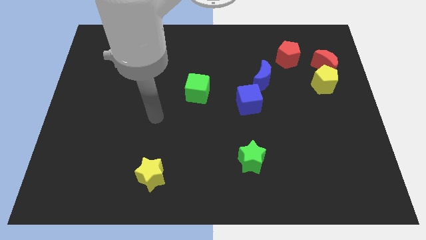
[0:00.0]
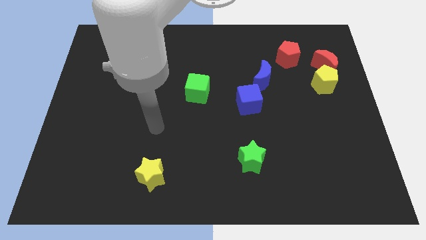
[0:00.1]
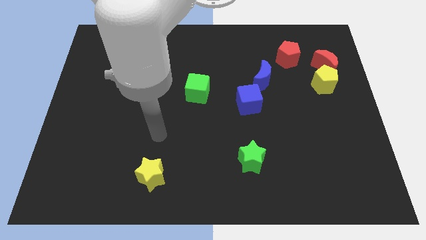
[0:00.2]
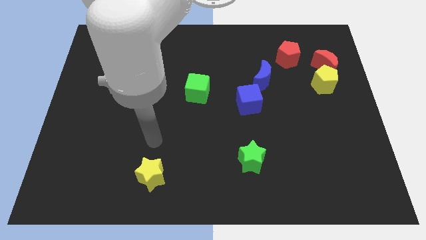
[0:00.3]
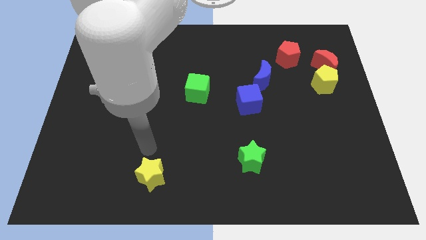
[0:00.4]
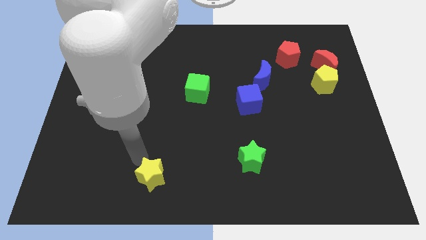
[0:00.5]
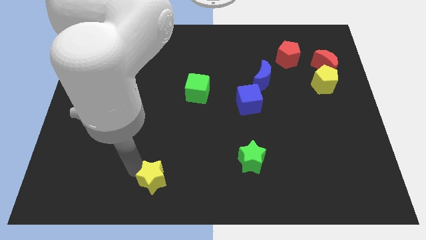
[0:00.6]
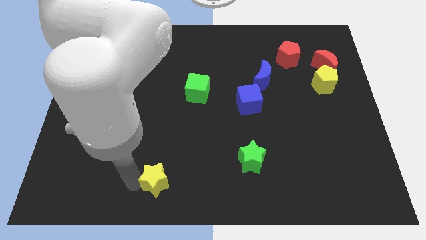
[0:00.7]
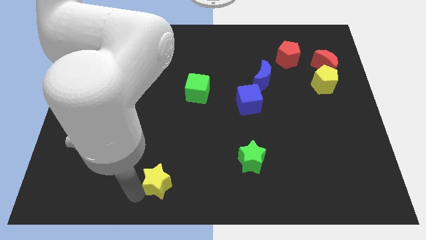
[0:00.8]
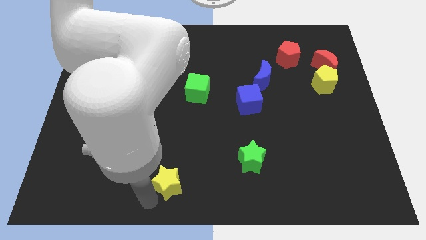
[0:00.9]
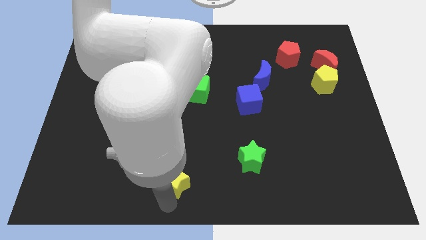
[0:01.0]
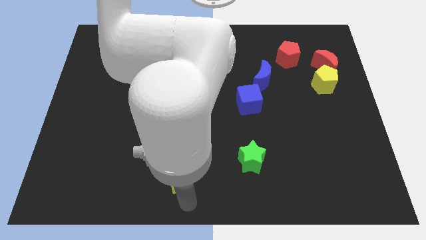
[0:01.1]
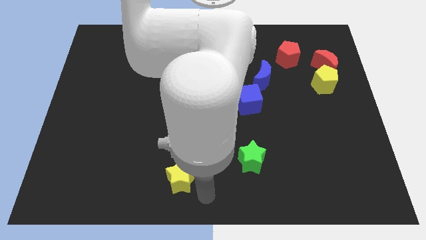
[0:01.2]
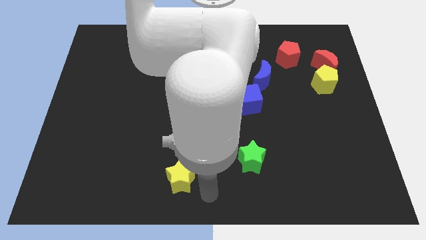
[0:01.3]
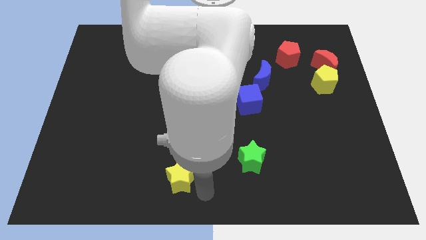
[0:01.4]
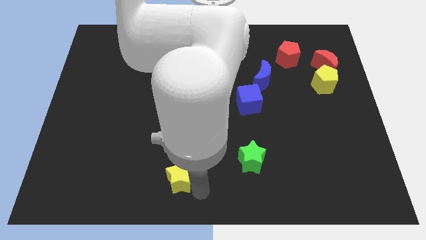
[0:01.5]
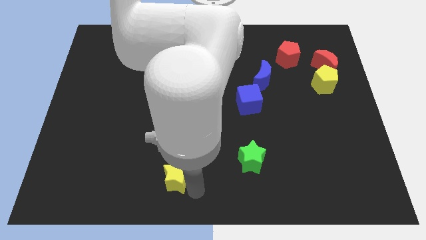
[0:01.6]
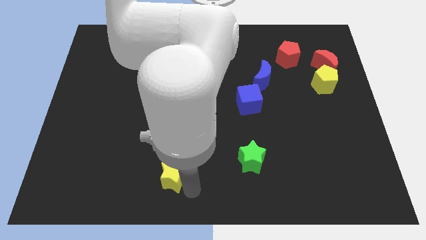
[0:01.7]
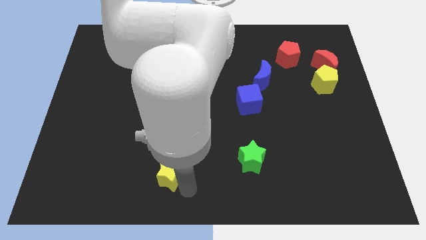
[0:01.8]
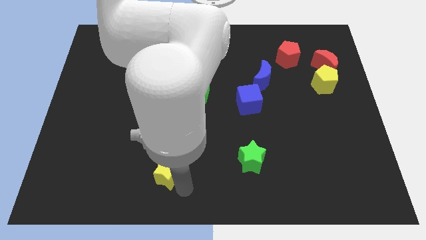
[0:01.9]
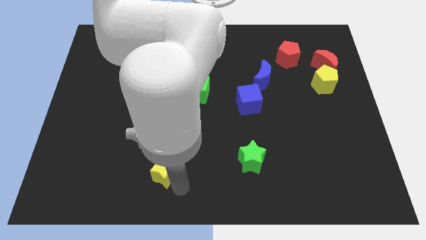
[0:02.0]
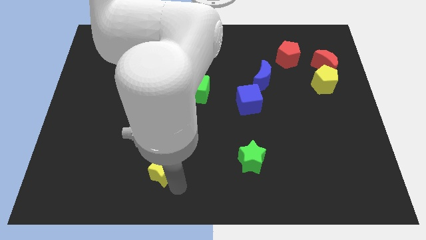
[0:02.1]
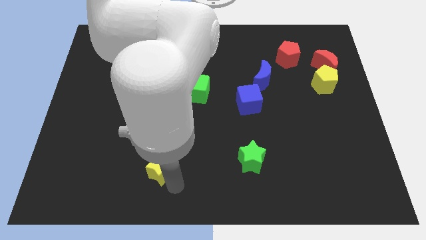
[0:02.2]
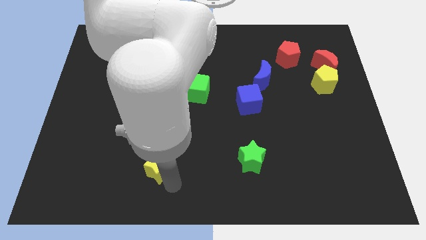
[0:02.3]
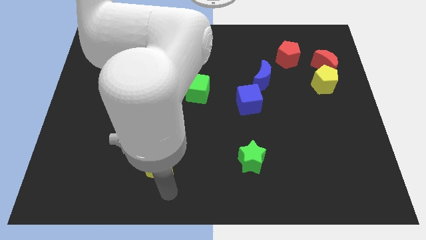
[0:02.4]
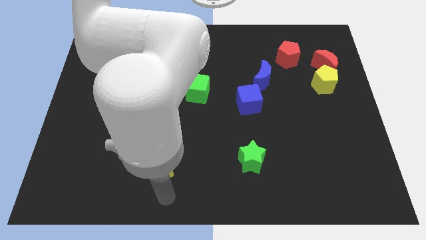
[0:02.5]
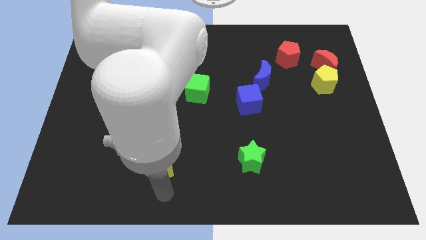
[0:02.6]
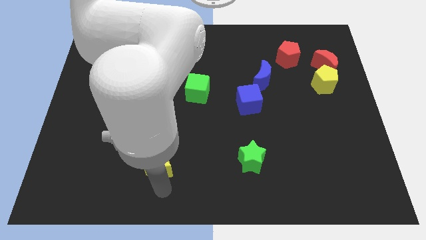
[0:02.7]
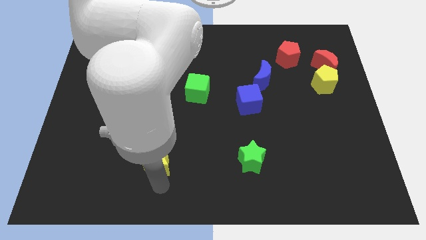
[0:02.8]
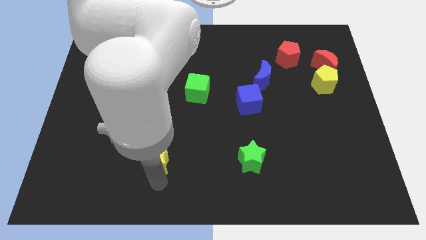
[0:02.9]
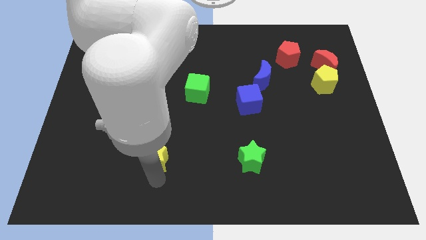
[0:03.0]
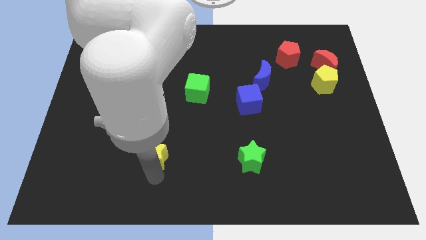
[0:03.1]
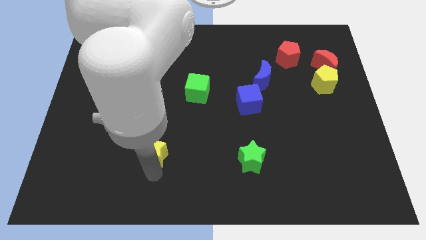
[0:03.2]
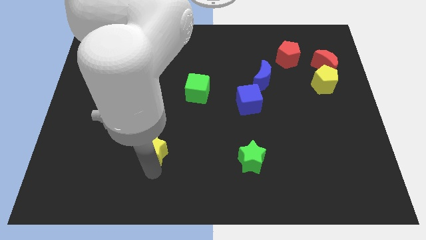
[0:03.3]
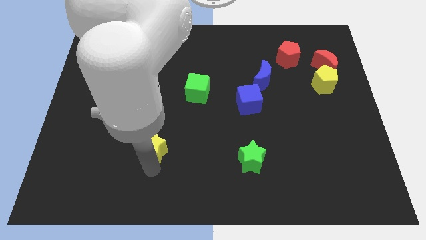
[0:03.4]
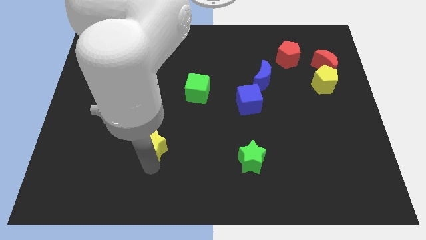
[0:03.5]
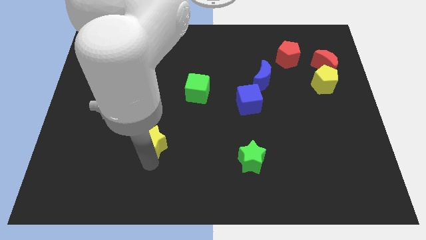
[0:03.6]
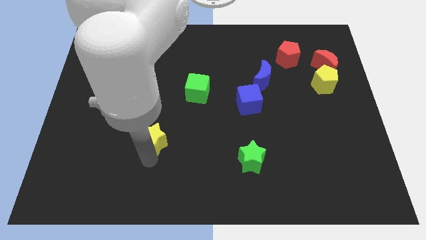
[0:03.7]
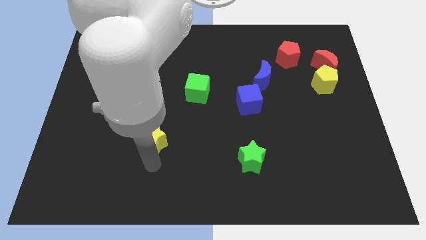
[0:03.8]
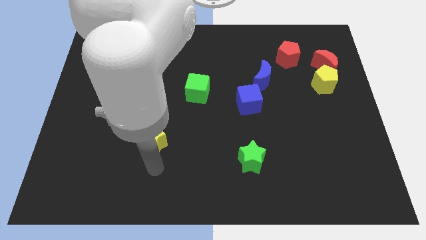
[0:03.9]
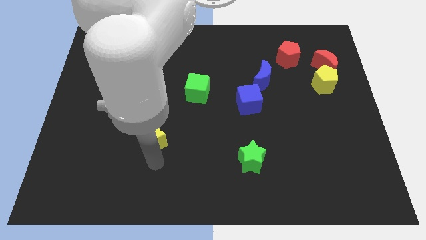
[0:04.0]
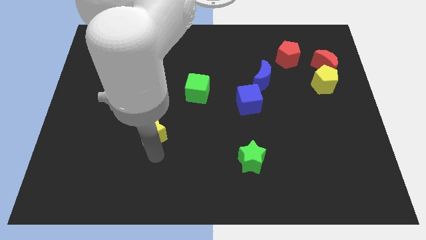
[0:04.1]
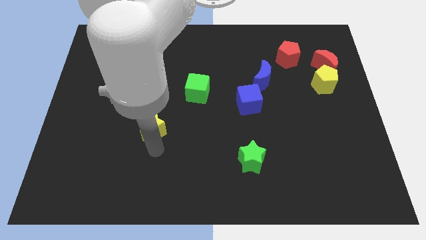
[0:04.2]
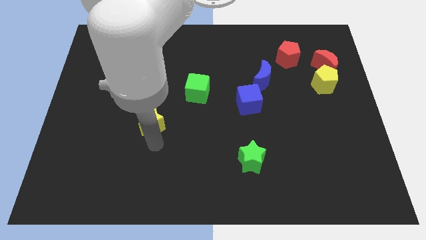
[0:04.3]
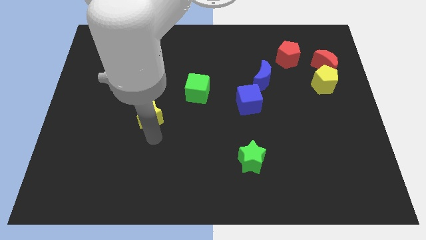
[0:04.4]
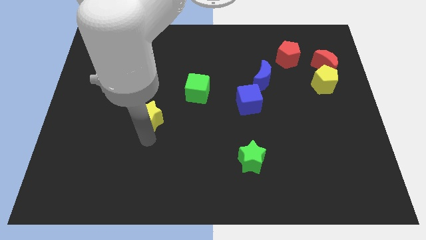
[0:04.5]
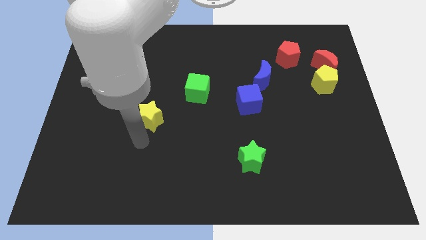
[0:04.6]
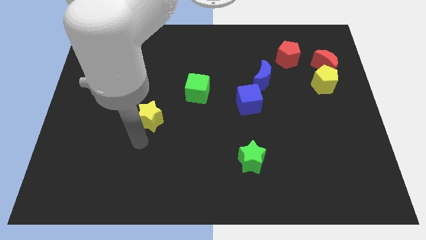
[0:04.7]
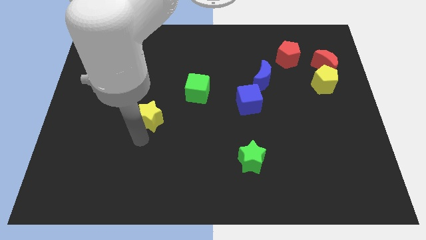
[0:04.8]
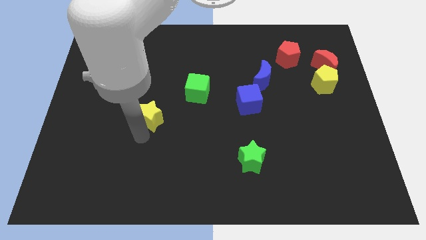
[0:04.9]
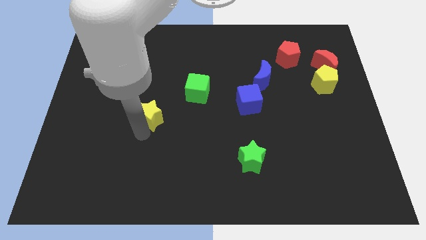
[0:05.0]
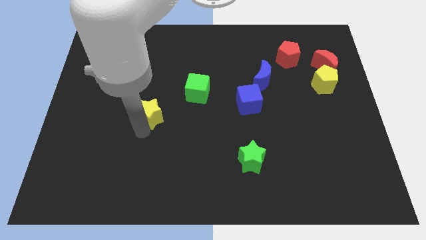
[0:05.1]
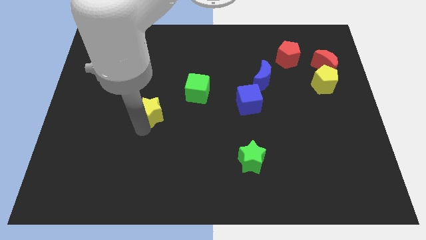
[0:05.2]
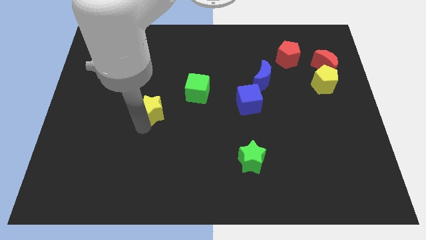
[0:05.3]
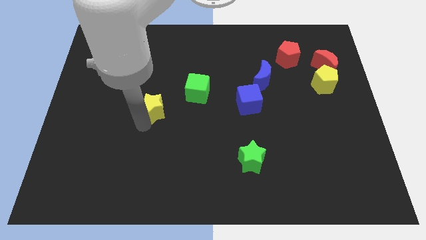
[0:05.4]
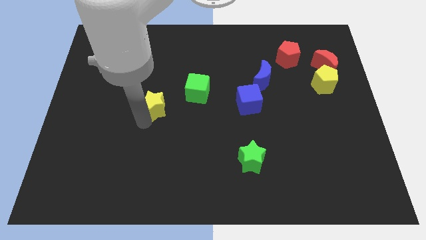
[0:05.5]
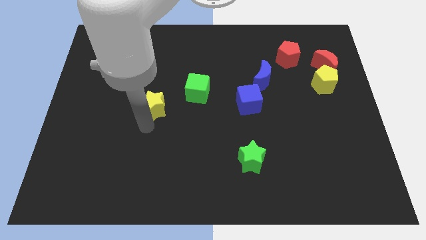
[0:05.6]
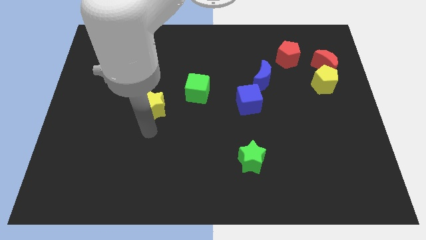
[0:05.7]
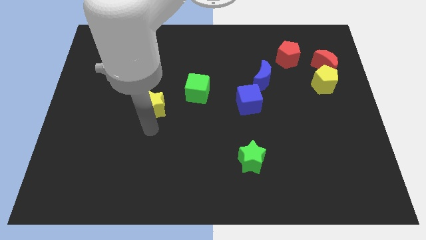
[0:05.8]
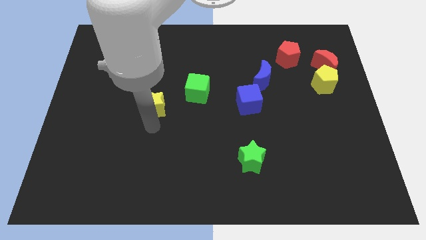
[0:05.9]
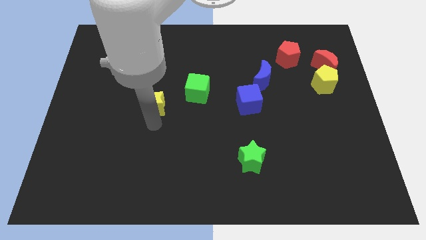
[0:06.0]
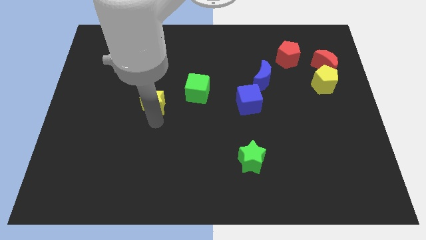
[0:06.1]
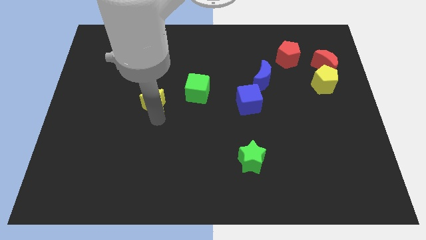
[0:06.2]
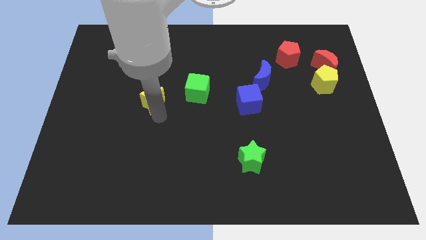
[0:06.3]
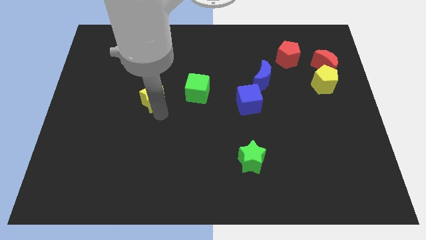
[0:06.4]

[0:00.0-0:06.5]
slide the yellow star up

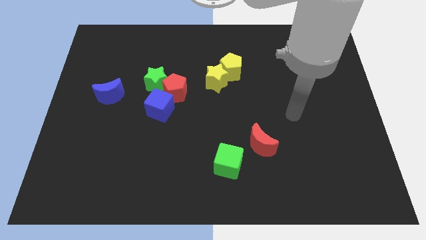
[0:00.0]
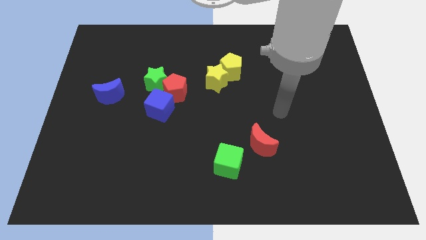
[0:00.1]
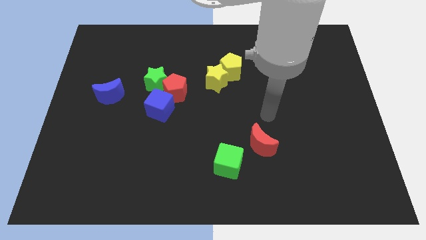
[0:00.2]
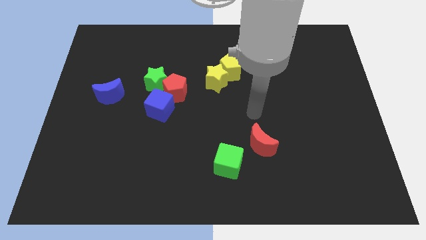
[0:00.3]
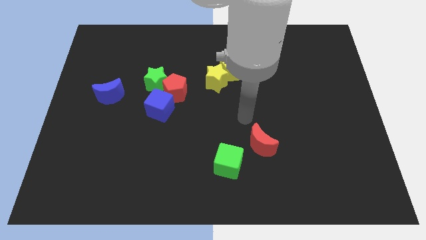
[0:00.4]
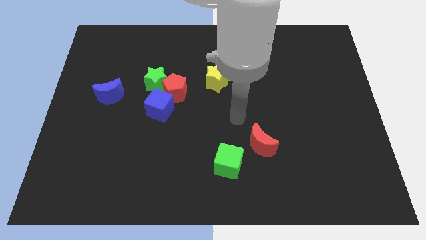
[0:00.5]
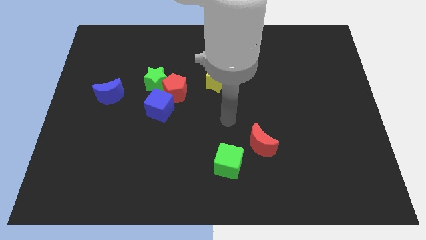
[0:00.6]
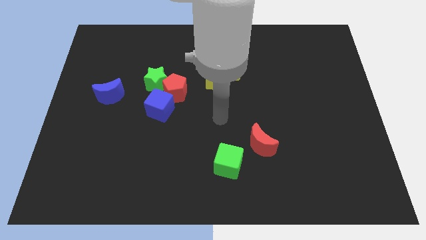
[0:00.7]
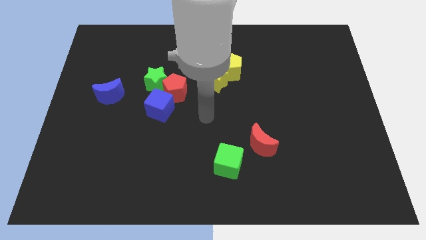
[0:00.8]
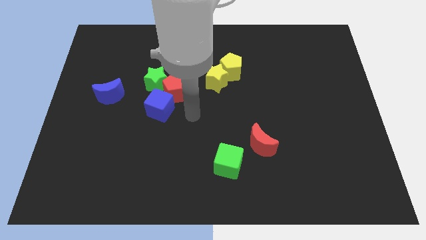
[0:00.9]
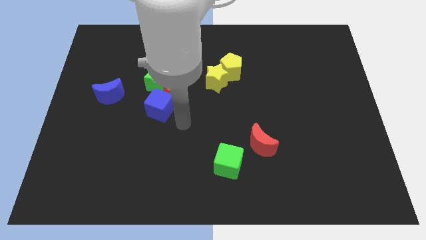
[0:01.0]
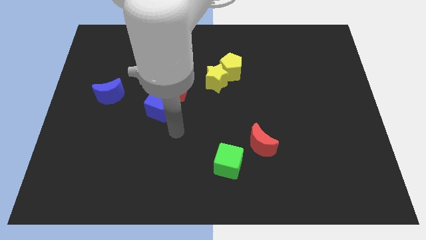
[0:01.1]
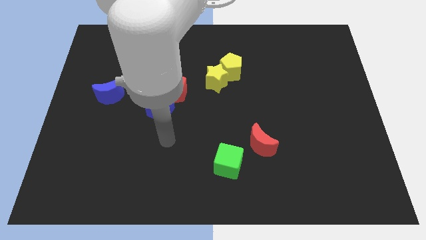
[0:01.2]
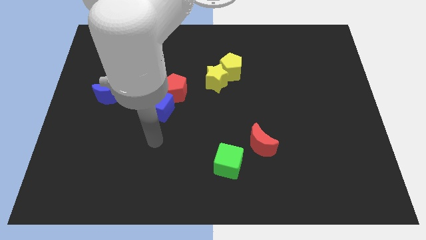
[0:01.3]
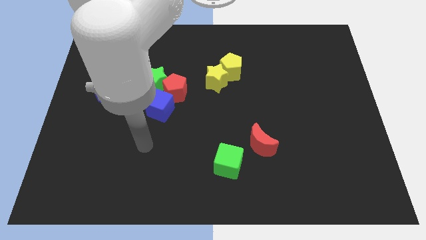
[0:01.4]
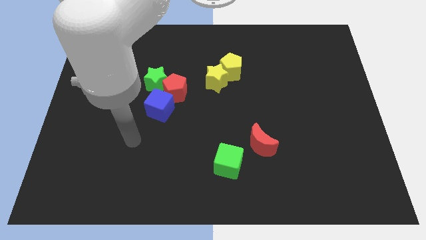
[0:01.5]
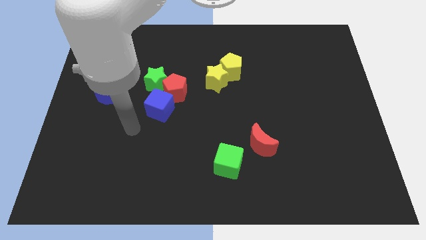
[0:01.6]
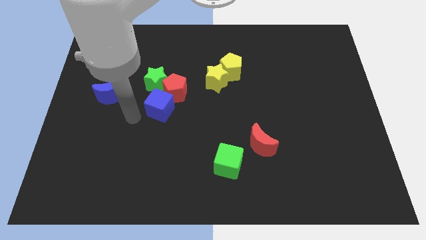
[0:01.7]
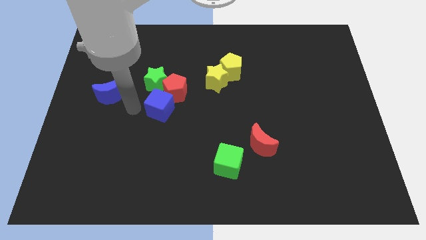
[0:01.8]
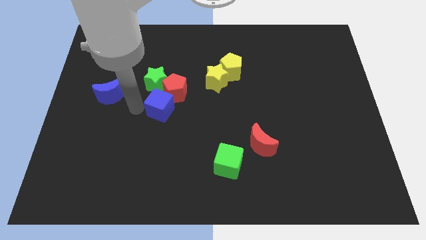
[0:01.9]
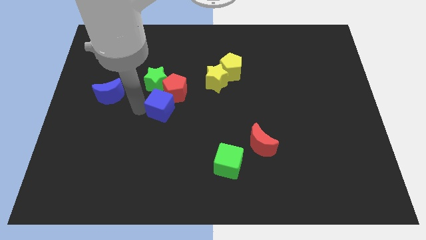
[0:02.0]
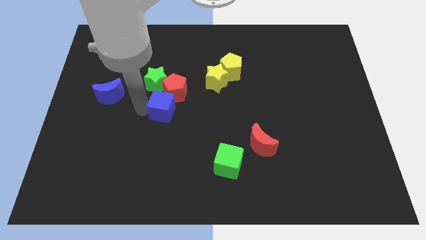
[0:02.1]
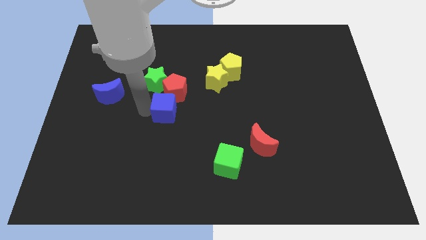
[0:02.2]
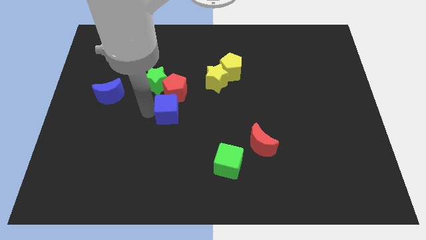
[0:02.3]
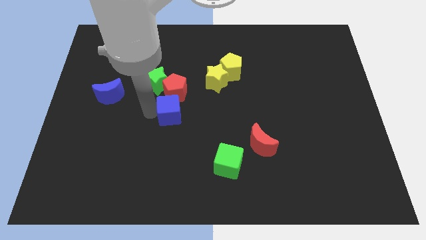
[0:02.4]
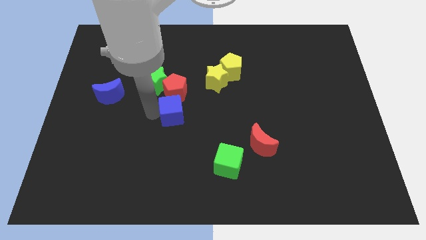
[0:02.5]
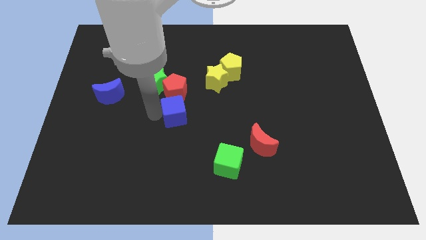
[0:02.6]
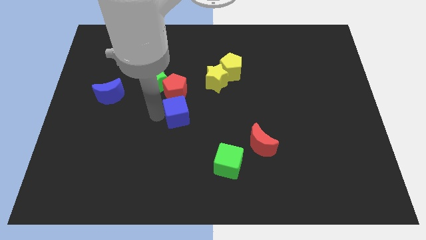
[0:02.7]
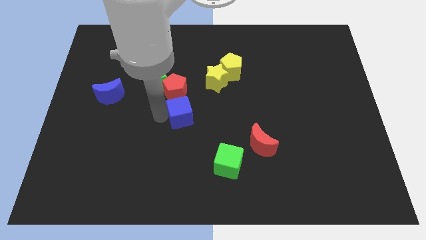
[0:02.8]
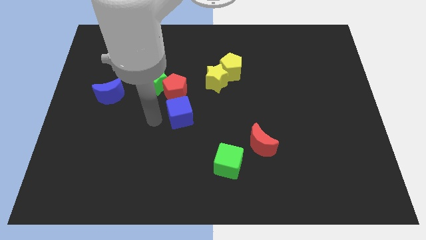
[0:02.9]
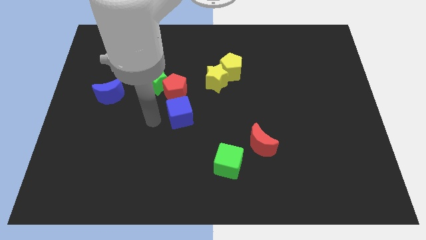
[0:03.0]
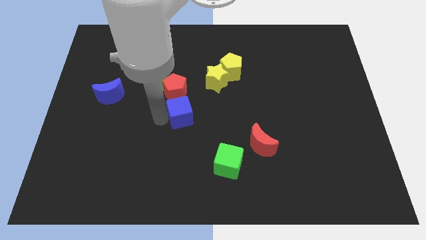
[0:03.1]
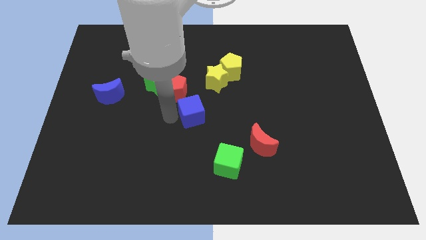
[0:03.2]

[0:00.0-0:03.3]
push the blue cube a little to the right
